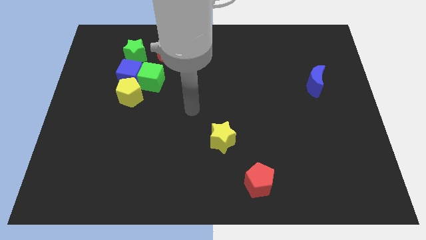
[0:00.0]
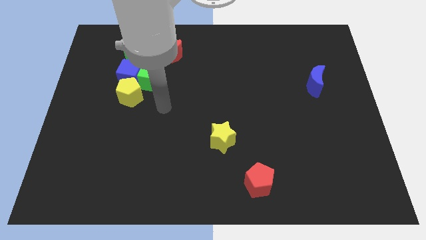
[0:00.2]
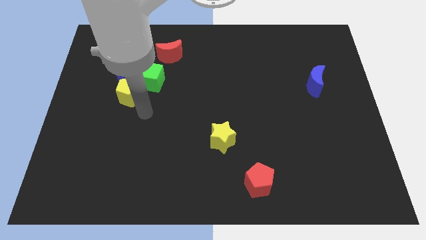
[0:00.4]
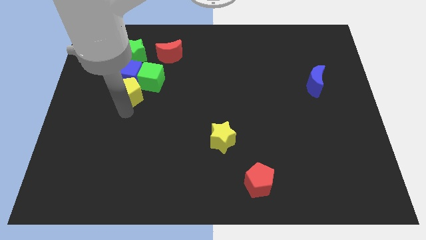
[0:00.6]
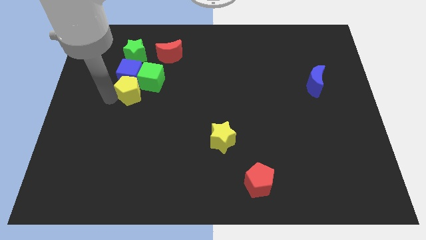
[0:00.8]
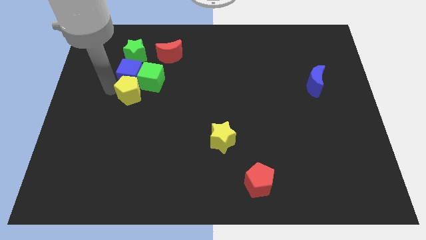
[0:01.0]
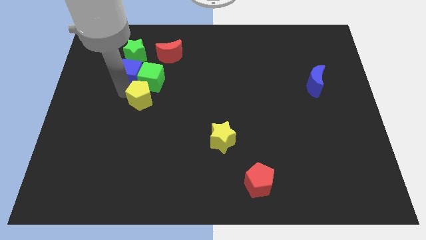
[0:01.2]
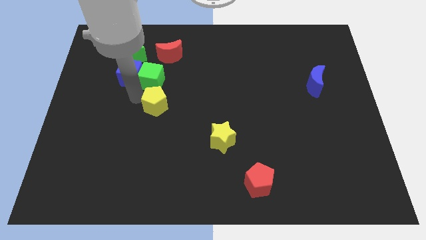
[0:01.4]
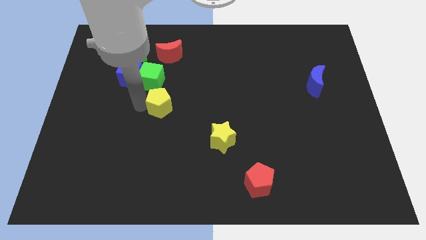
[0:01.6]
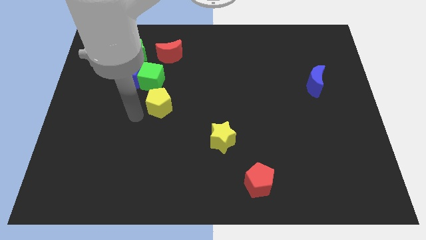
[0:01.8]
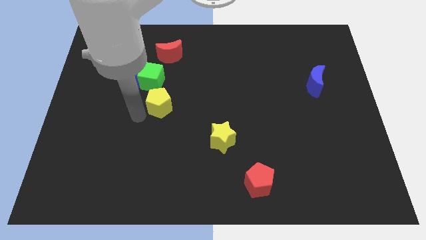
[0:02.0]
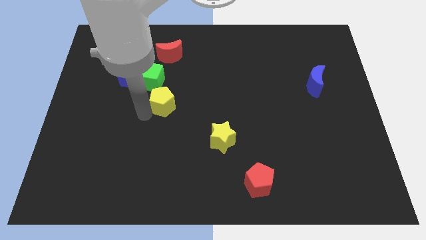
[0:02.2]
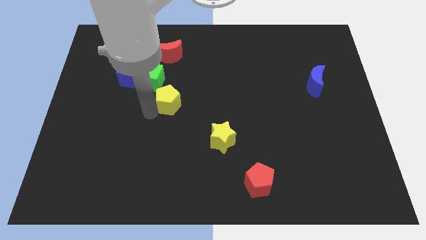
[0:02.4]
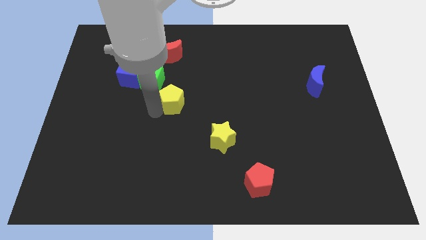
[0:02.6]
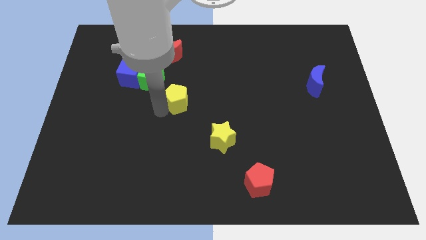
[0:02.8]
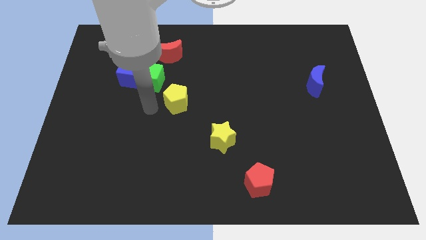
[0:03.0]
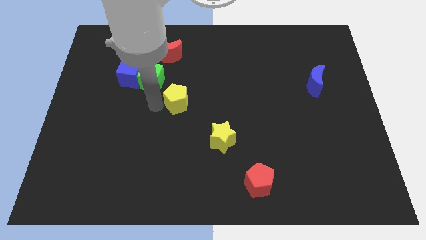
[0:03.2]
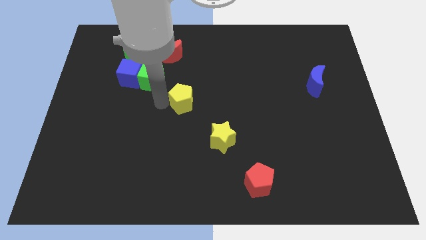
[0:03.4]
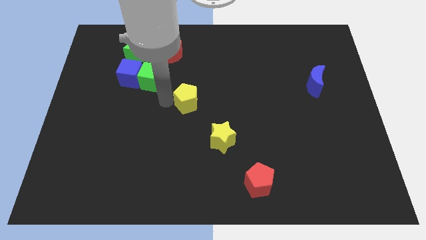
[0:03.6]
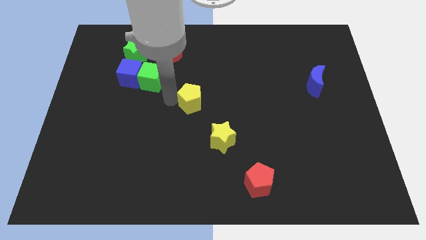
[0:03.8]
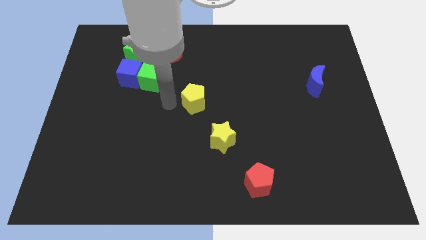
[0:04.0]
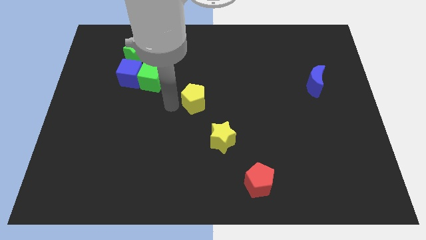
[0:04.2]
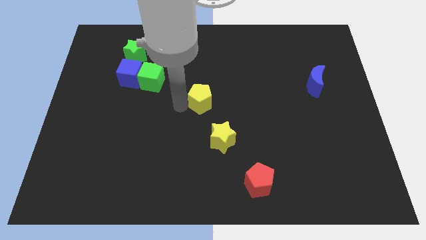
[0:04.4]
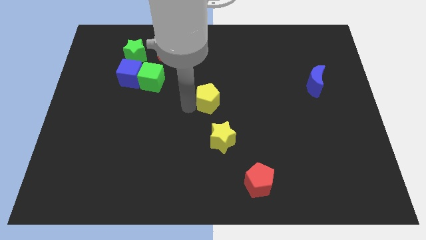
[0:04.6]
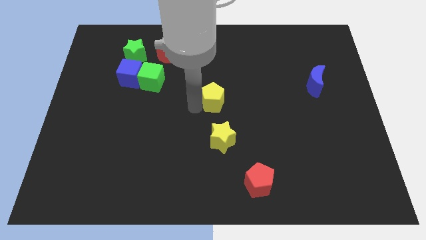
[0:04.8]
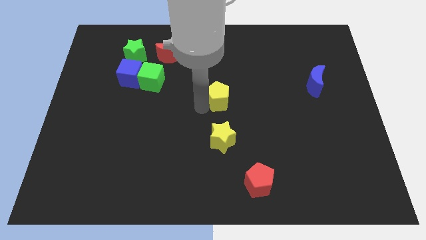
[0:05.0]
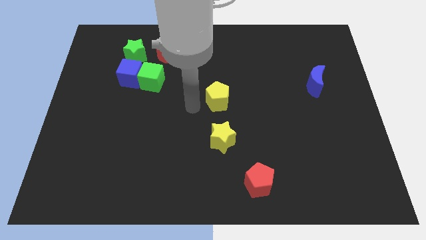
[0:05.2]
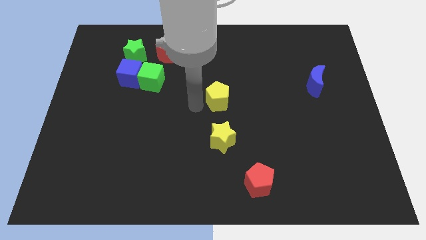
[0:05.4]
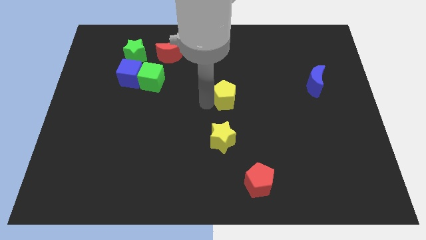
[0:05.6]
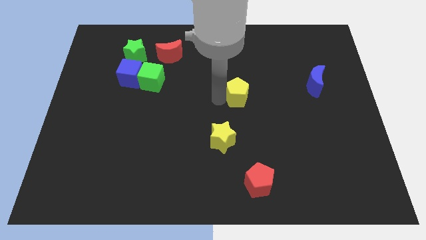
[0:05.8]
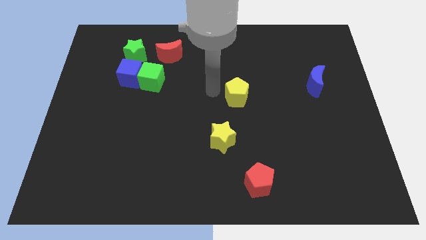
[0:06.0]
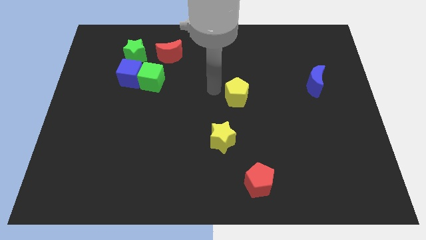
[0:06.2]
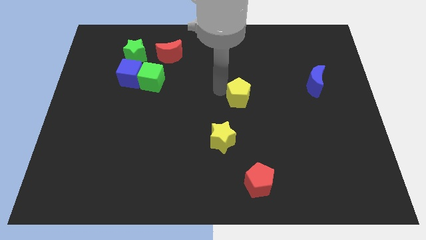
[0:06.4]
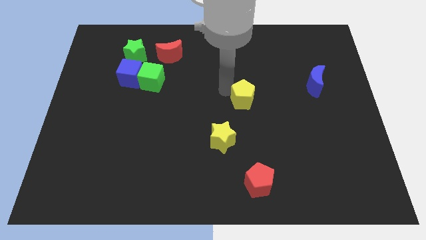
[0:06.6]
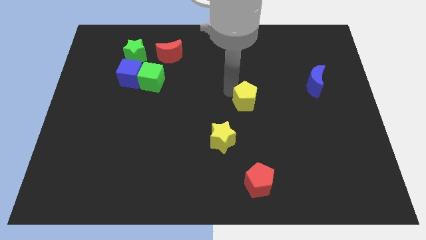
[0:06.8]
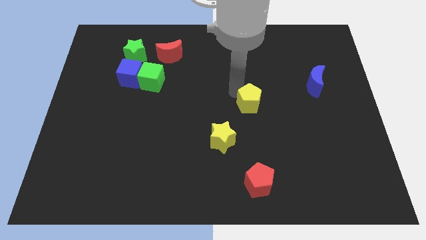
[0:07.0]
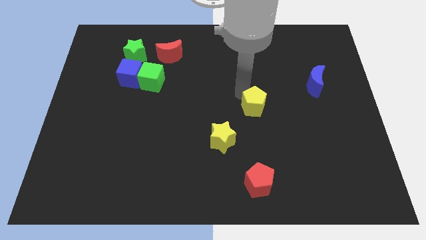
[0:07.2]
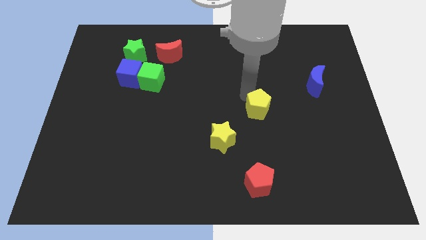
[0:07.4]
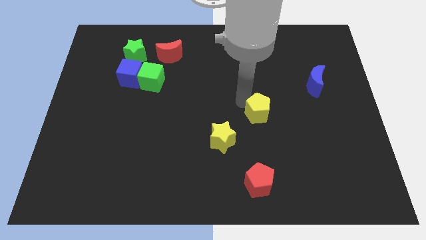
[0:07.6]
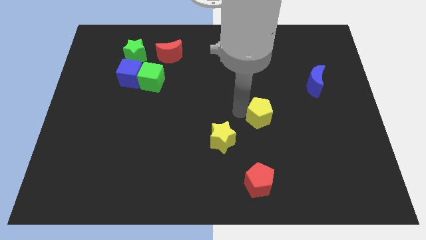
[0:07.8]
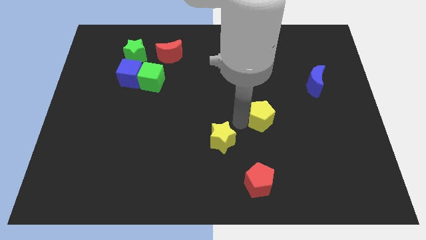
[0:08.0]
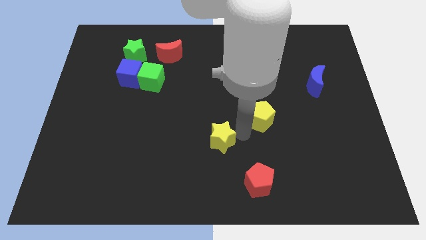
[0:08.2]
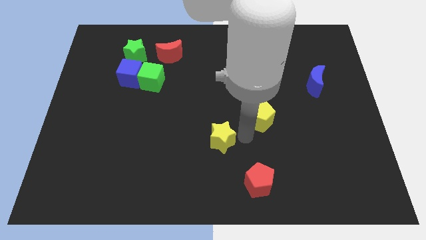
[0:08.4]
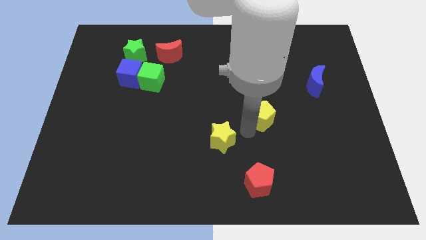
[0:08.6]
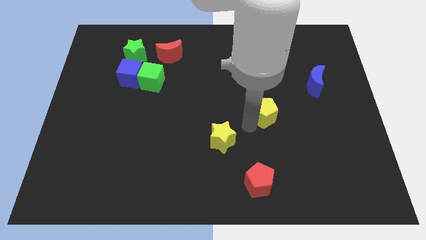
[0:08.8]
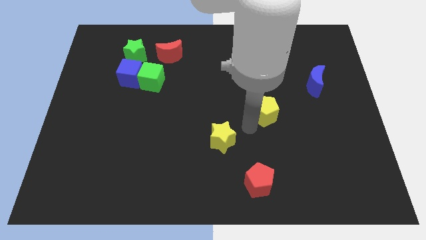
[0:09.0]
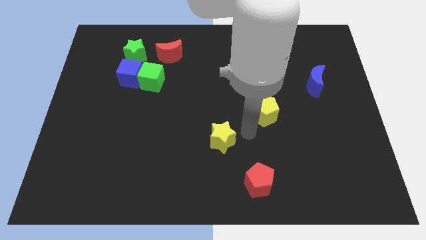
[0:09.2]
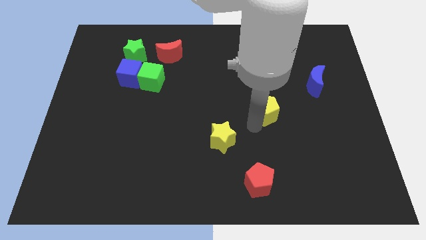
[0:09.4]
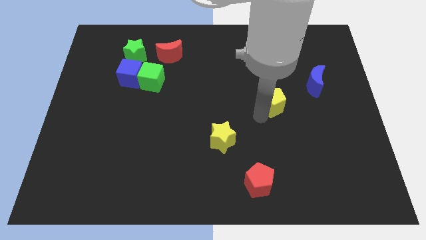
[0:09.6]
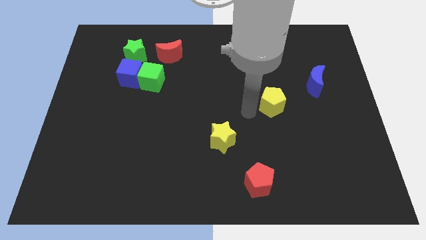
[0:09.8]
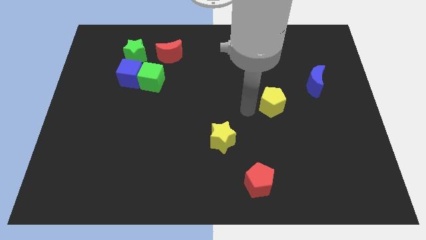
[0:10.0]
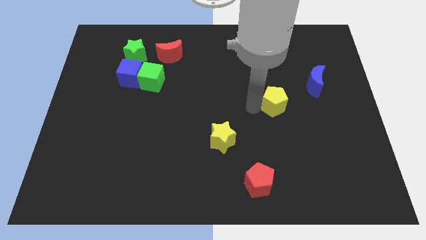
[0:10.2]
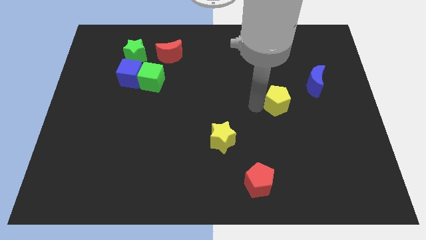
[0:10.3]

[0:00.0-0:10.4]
push the yellow pentagon to the bottom left of the blue moon

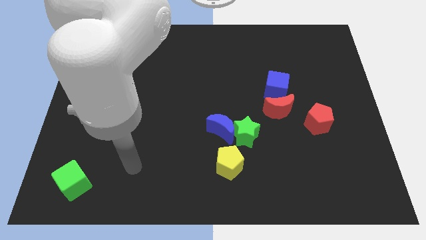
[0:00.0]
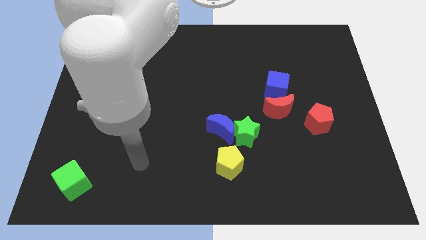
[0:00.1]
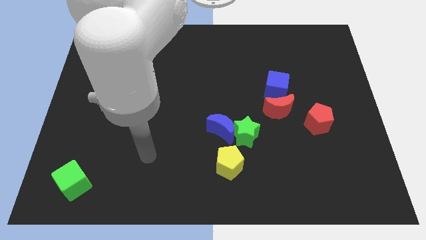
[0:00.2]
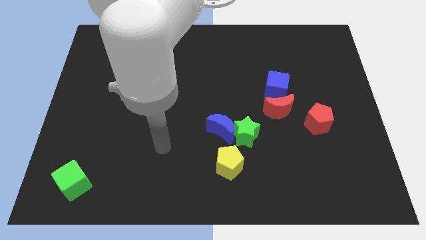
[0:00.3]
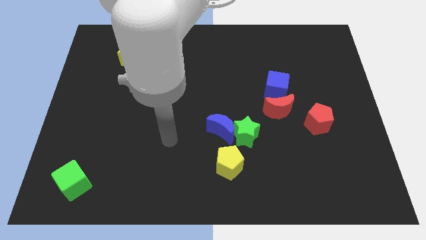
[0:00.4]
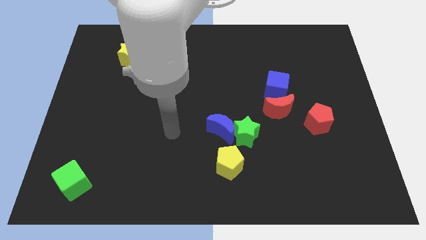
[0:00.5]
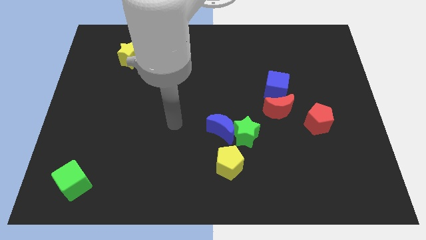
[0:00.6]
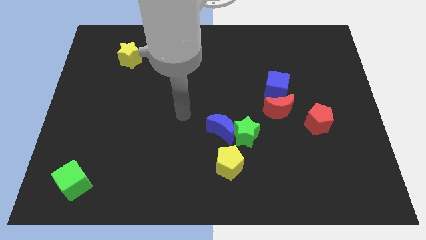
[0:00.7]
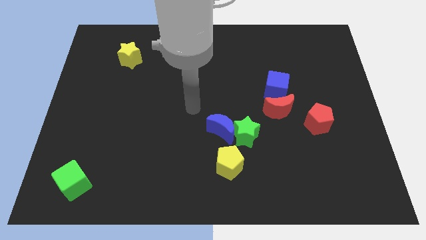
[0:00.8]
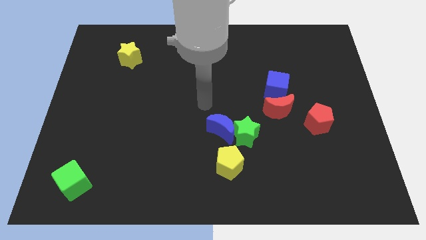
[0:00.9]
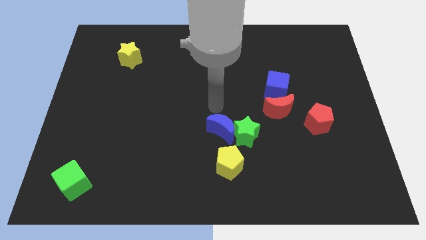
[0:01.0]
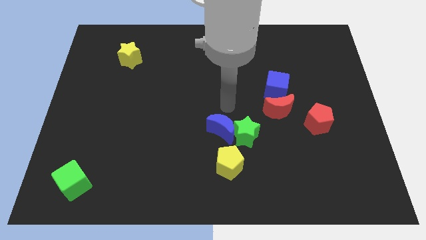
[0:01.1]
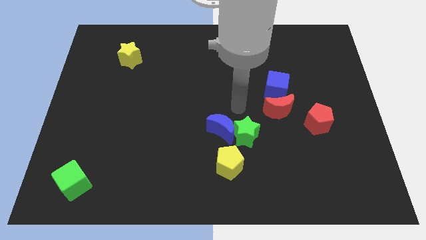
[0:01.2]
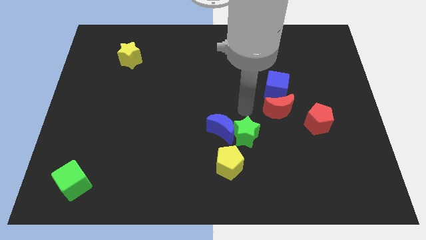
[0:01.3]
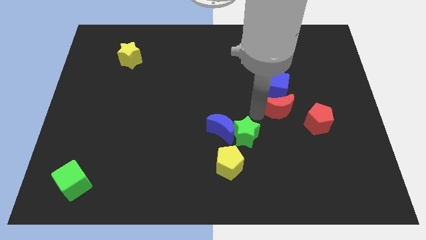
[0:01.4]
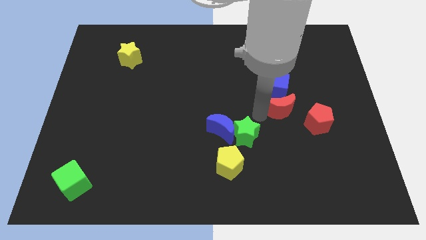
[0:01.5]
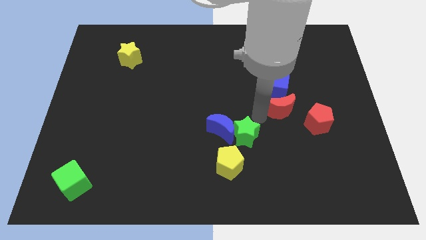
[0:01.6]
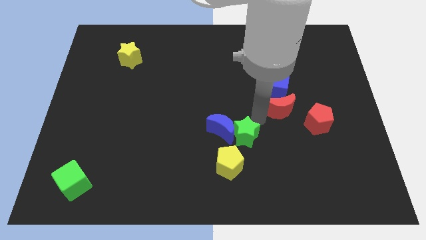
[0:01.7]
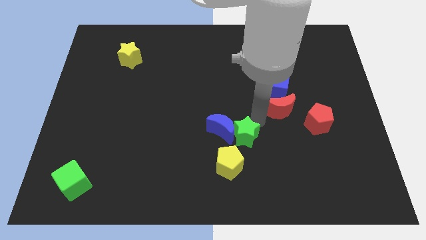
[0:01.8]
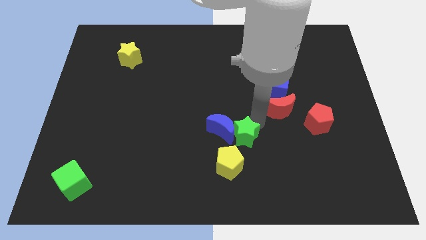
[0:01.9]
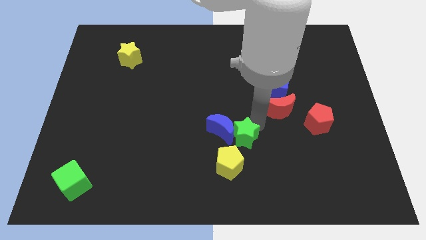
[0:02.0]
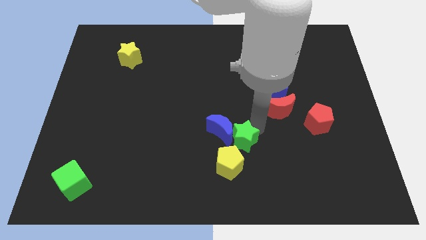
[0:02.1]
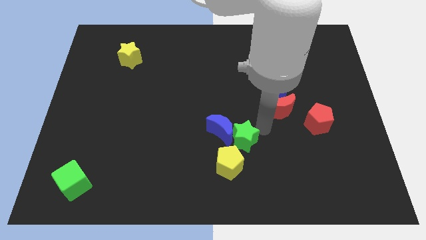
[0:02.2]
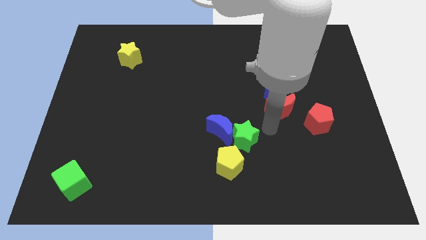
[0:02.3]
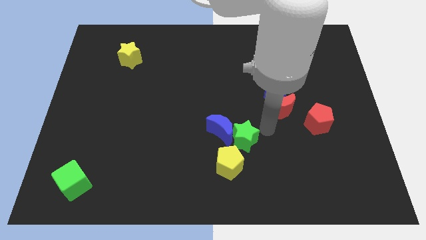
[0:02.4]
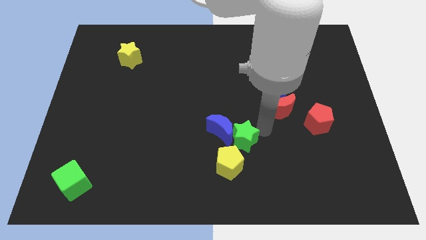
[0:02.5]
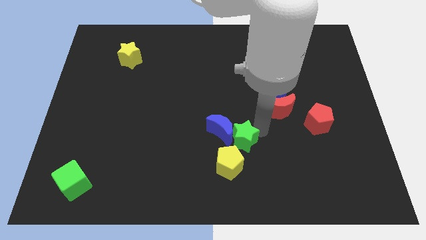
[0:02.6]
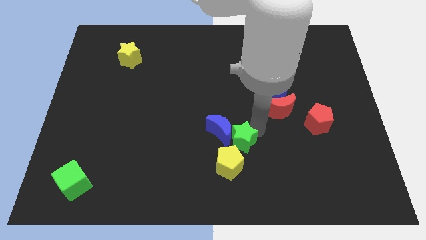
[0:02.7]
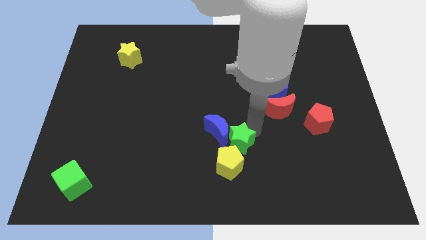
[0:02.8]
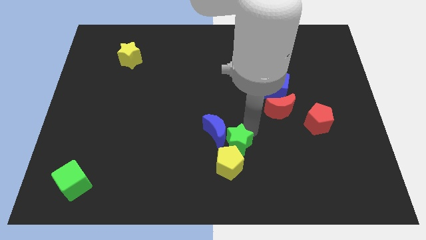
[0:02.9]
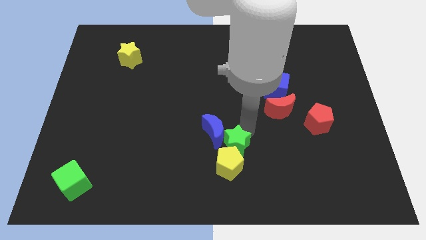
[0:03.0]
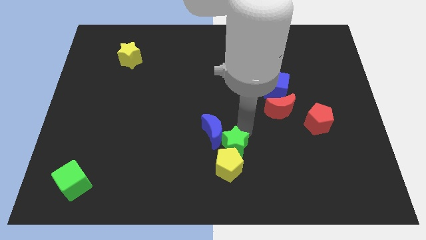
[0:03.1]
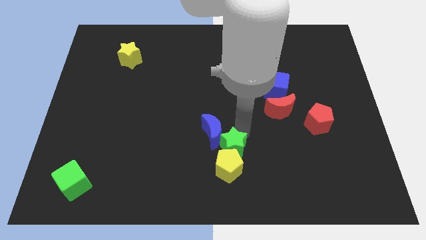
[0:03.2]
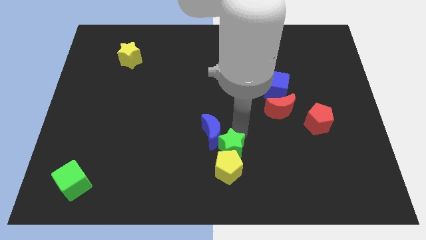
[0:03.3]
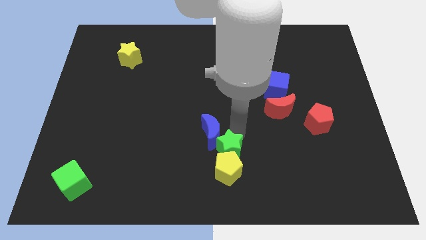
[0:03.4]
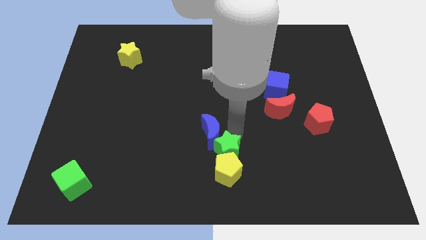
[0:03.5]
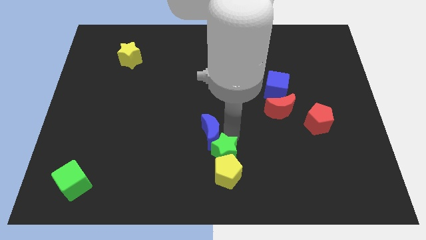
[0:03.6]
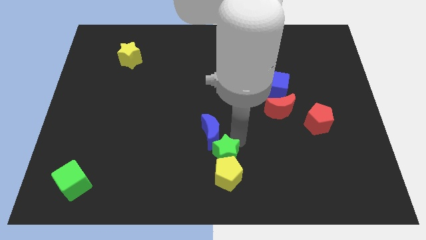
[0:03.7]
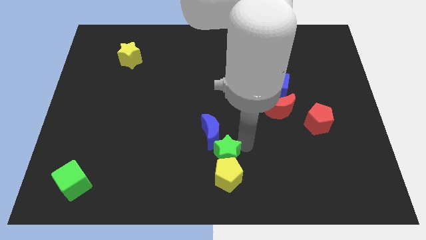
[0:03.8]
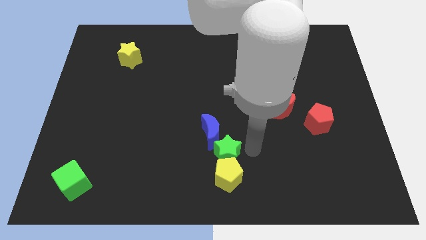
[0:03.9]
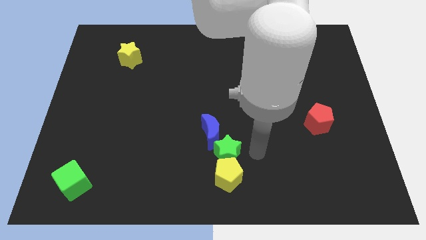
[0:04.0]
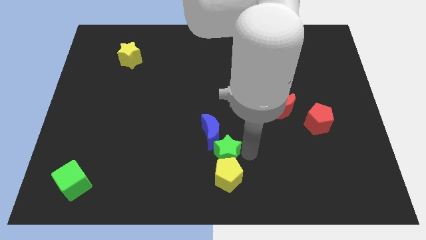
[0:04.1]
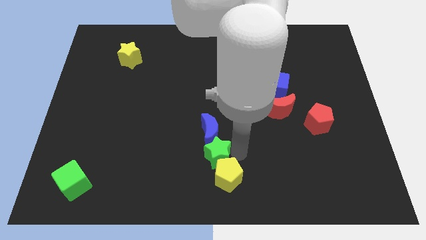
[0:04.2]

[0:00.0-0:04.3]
push the green star to the bottom left side of the blue moon
